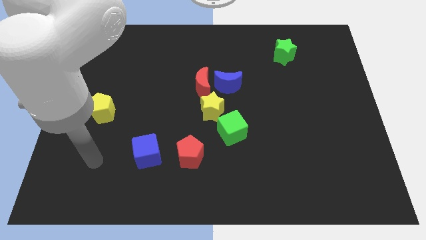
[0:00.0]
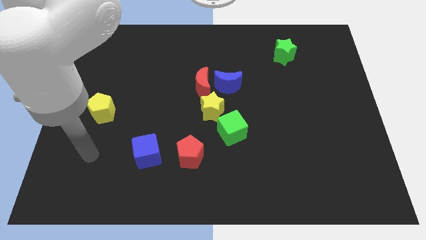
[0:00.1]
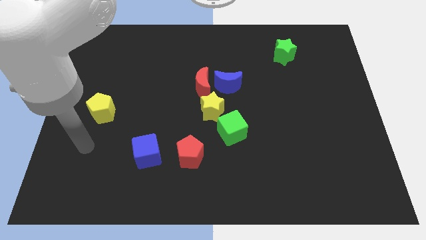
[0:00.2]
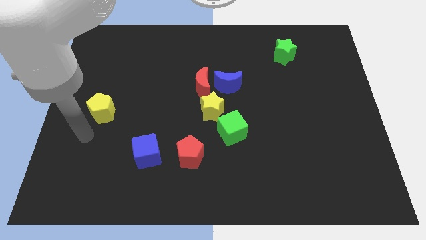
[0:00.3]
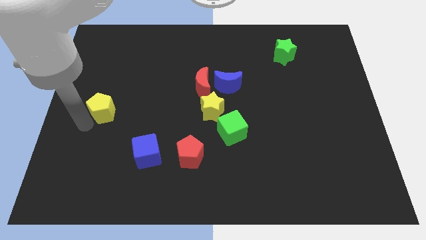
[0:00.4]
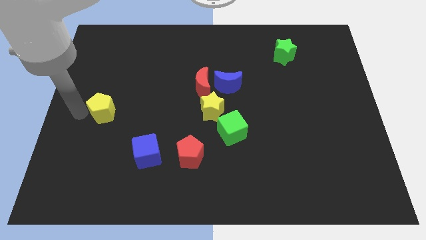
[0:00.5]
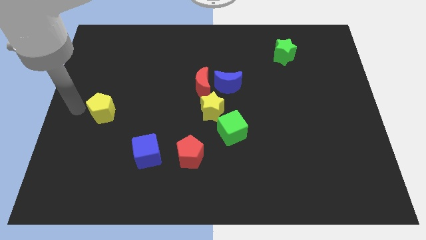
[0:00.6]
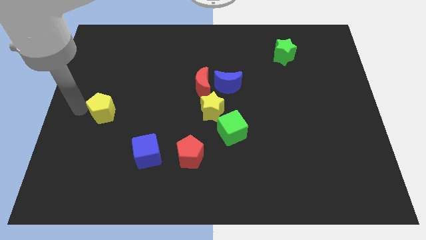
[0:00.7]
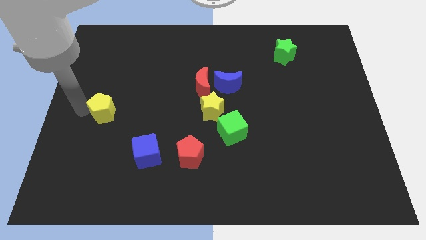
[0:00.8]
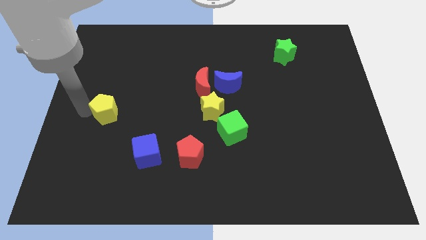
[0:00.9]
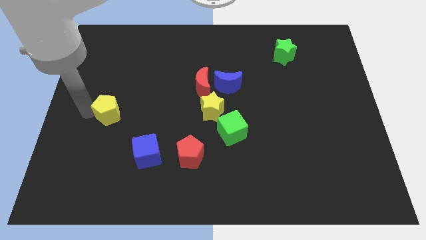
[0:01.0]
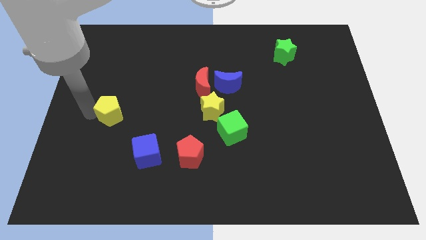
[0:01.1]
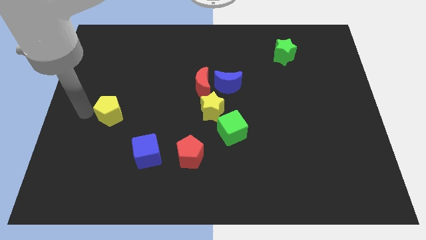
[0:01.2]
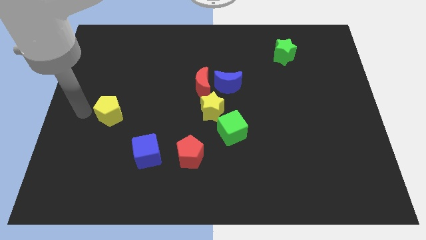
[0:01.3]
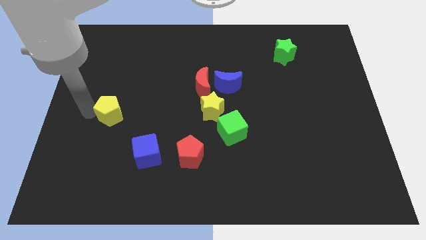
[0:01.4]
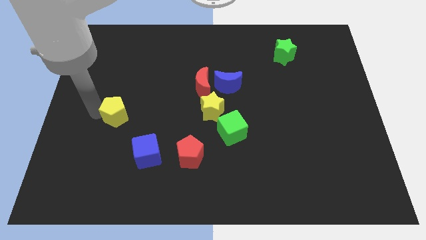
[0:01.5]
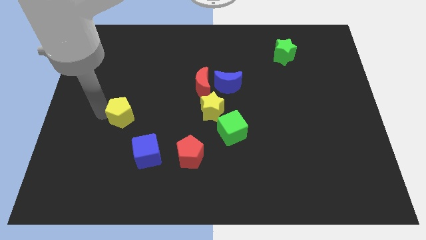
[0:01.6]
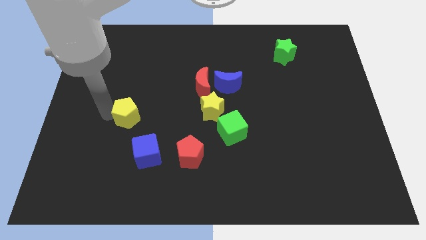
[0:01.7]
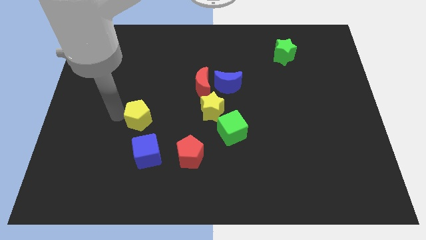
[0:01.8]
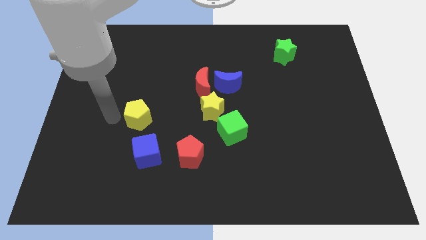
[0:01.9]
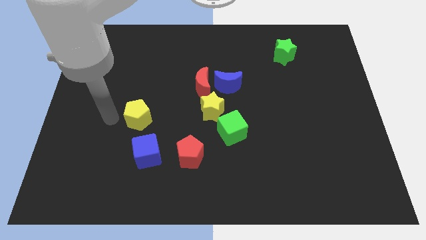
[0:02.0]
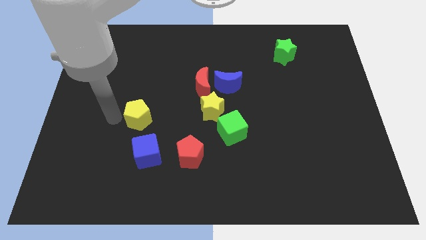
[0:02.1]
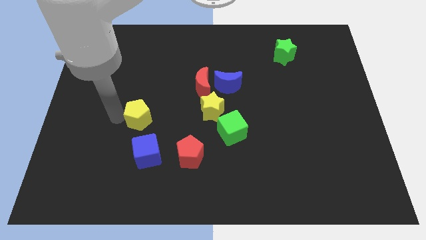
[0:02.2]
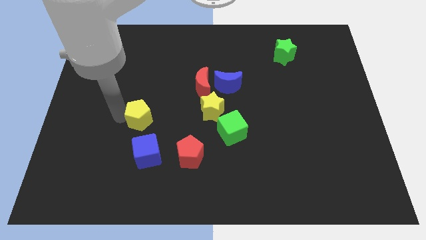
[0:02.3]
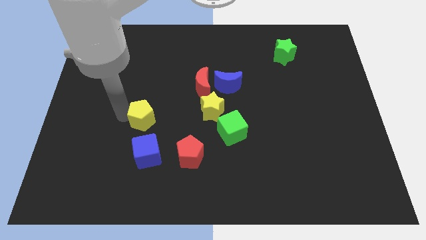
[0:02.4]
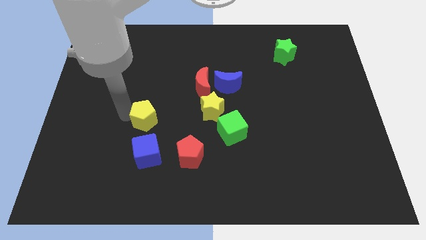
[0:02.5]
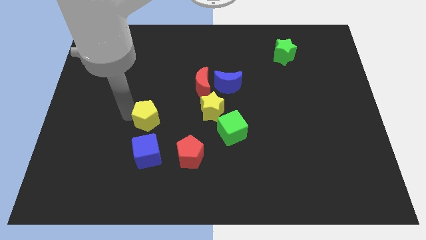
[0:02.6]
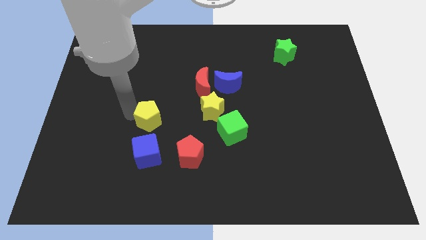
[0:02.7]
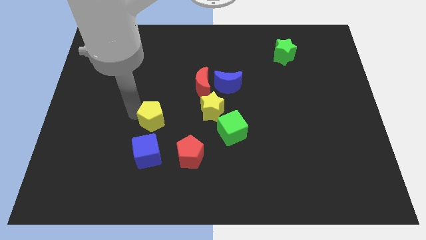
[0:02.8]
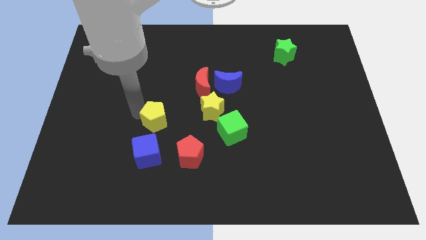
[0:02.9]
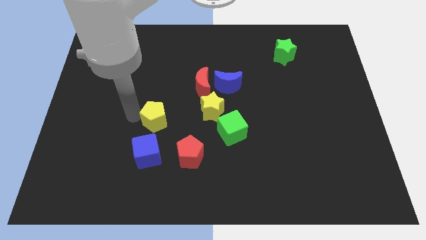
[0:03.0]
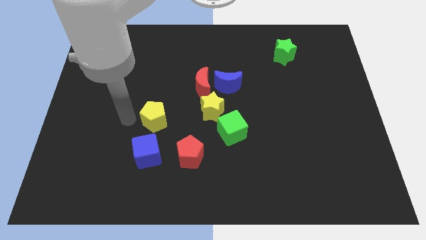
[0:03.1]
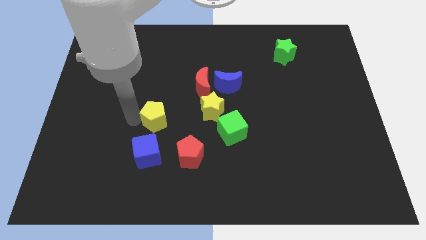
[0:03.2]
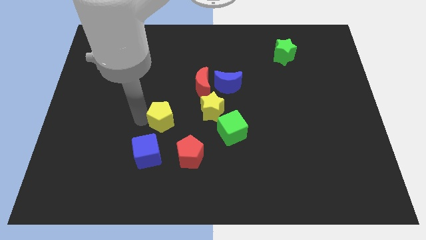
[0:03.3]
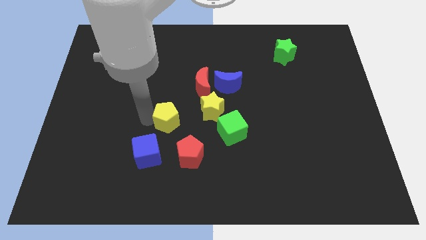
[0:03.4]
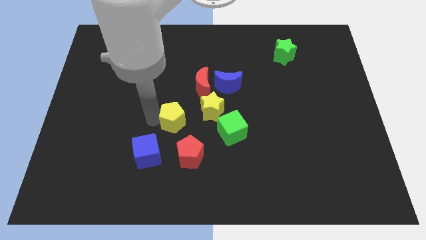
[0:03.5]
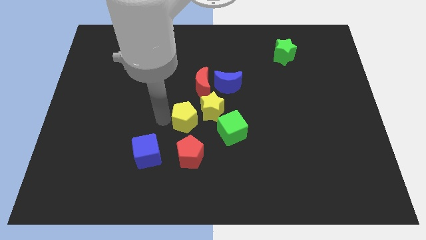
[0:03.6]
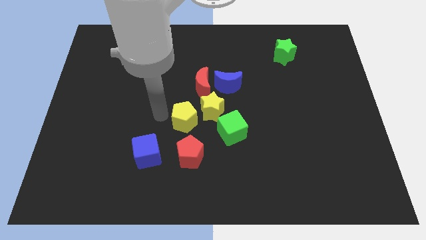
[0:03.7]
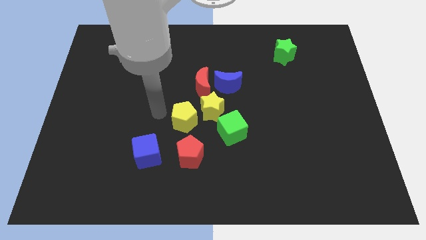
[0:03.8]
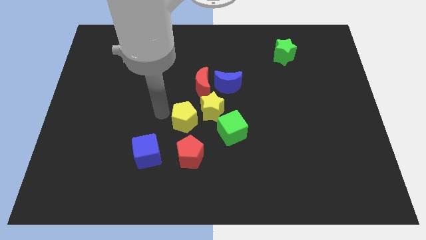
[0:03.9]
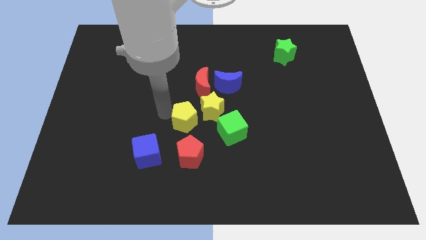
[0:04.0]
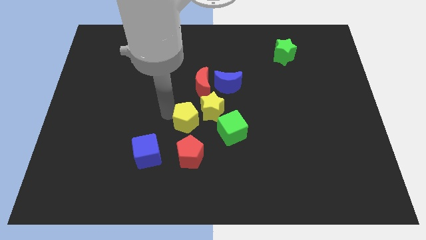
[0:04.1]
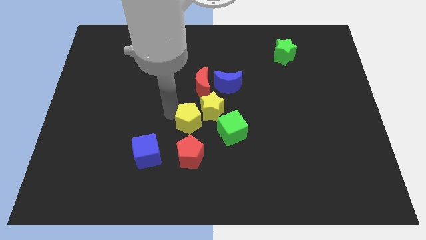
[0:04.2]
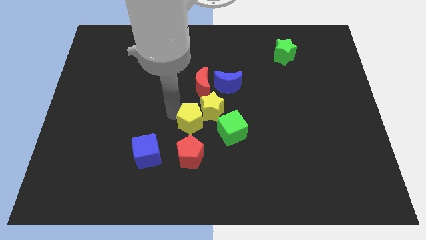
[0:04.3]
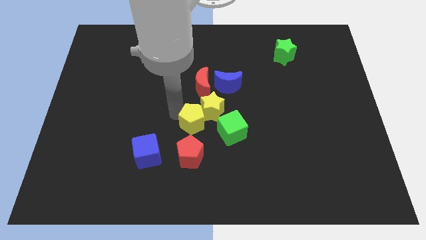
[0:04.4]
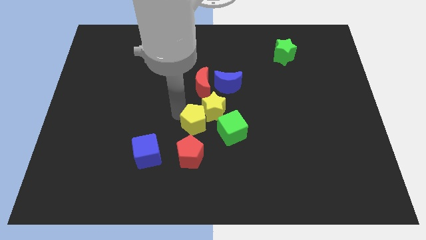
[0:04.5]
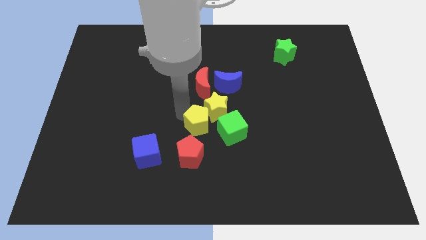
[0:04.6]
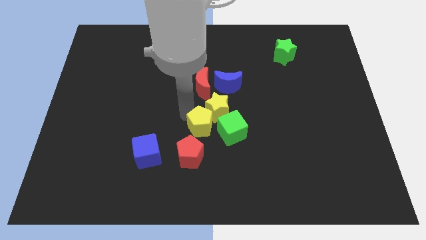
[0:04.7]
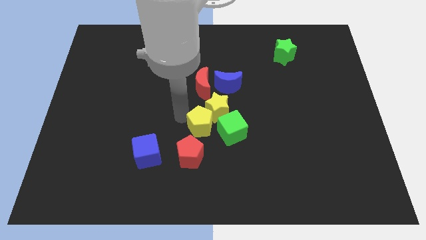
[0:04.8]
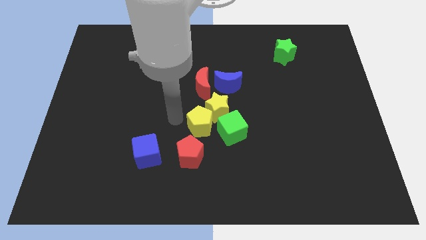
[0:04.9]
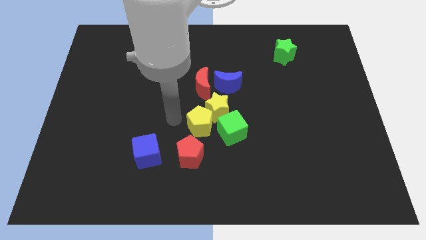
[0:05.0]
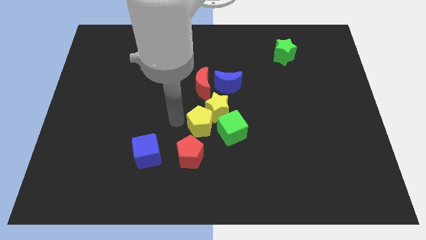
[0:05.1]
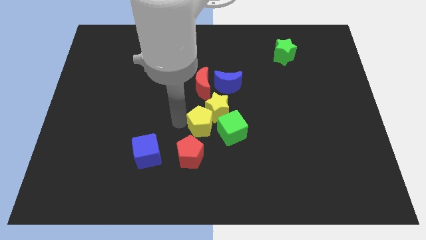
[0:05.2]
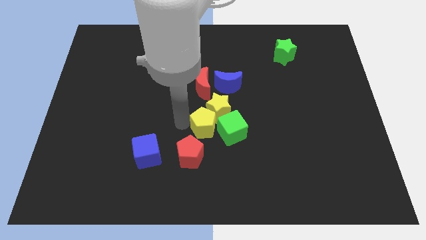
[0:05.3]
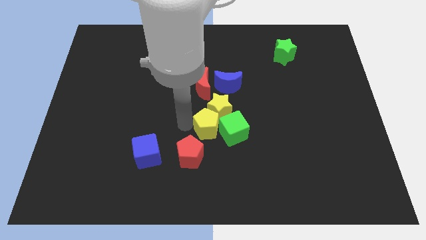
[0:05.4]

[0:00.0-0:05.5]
slide the yellow pentagon to the green cube

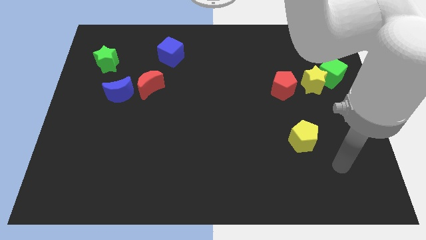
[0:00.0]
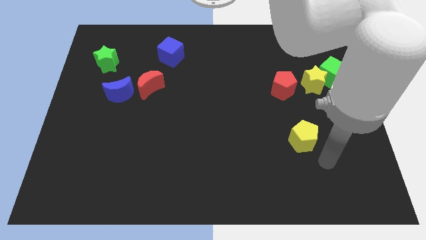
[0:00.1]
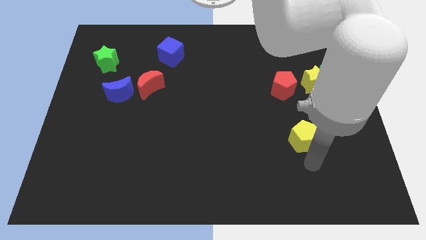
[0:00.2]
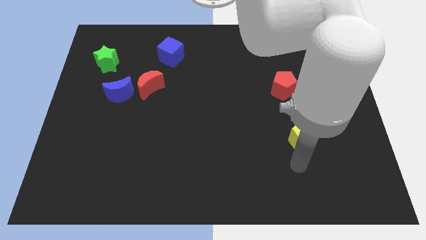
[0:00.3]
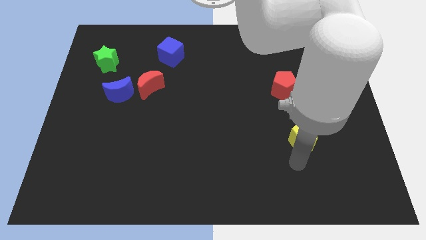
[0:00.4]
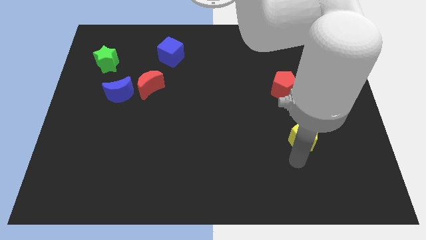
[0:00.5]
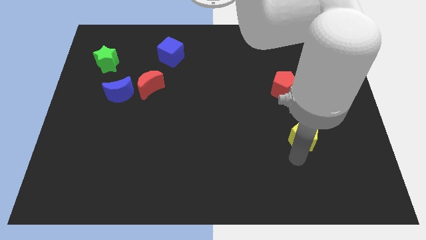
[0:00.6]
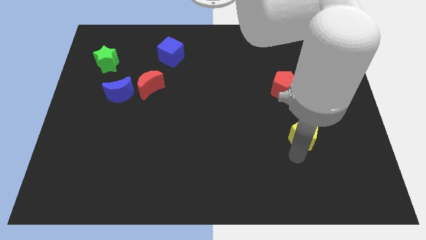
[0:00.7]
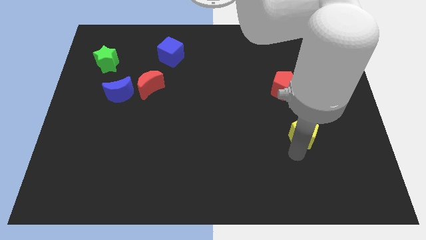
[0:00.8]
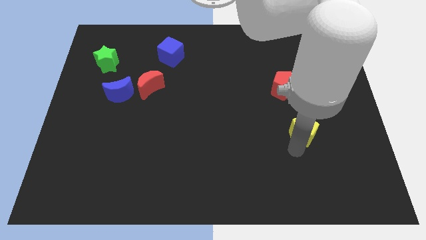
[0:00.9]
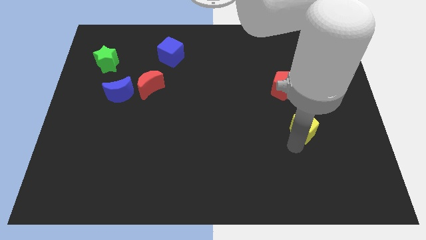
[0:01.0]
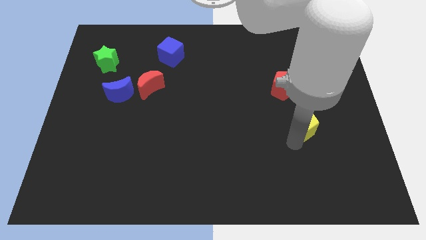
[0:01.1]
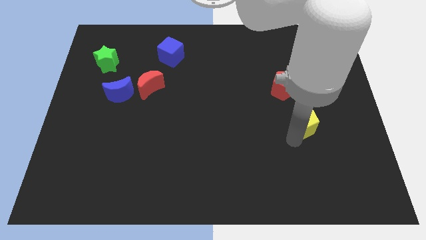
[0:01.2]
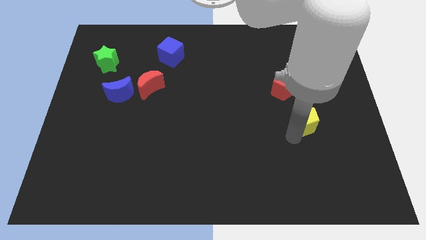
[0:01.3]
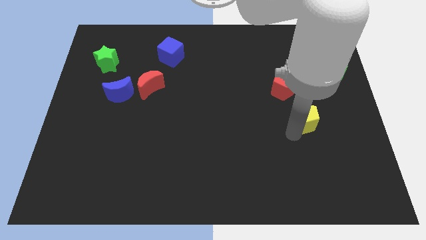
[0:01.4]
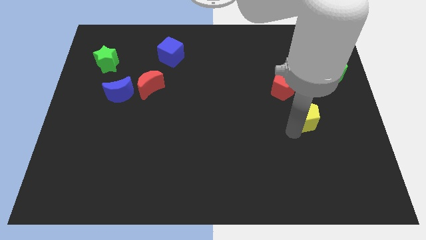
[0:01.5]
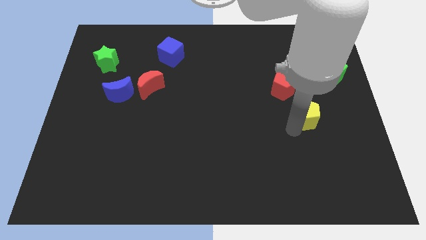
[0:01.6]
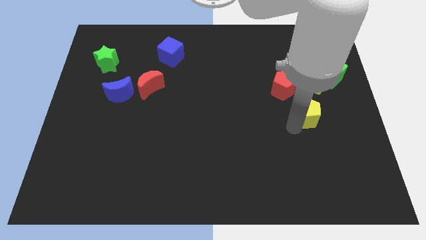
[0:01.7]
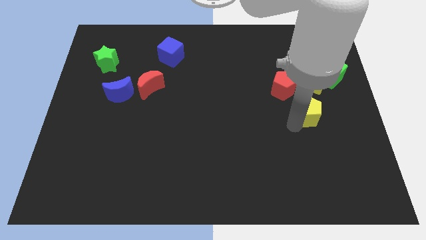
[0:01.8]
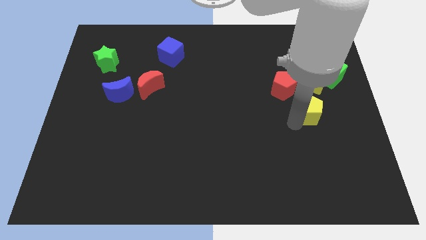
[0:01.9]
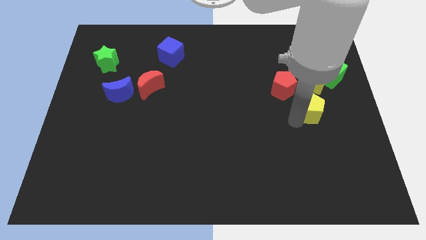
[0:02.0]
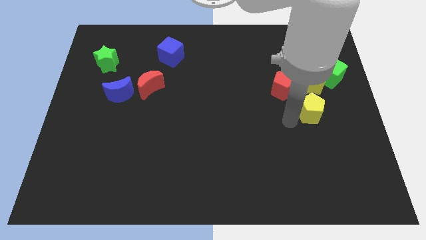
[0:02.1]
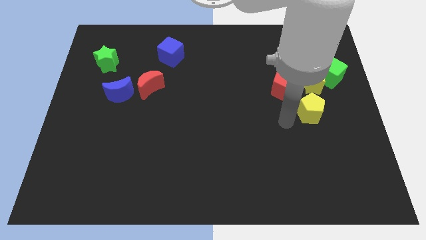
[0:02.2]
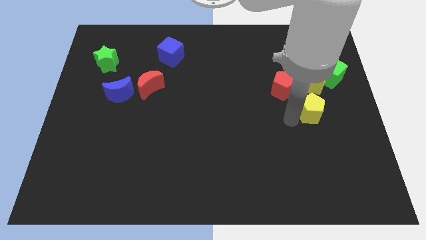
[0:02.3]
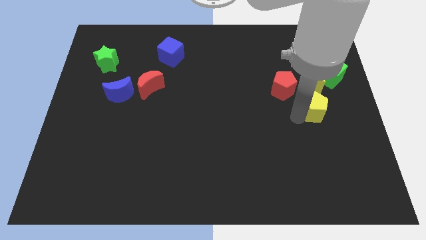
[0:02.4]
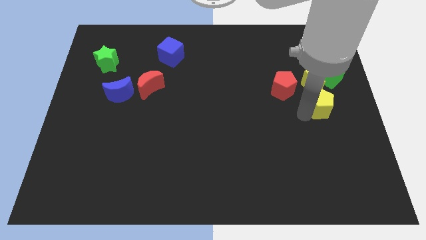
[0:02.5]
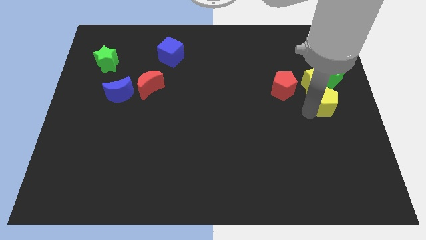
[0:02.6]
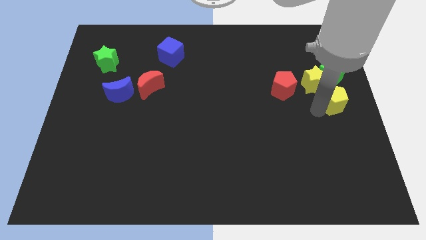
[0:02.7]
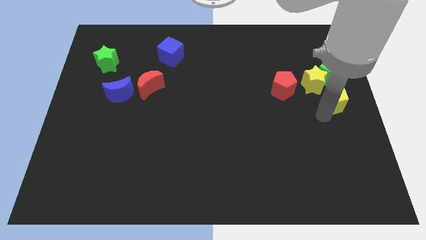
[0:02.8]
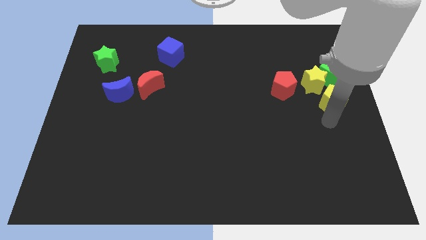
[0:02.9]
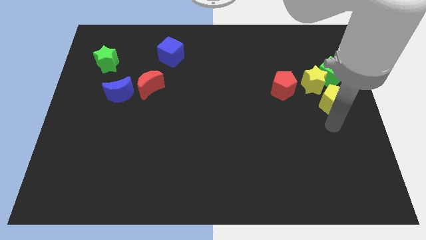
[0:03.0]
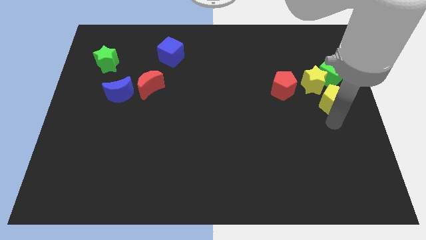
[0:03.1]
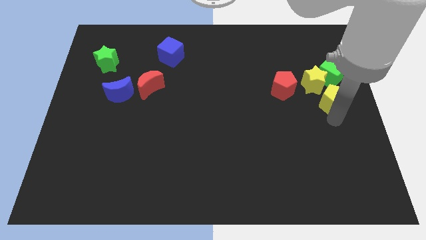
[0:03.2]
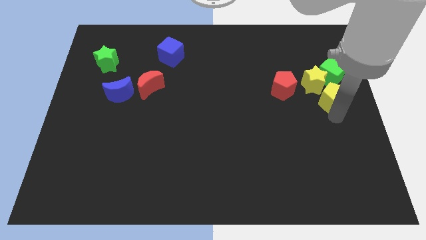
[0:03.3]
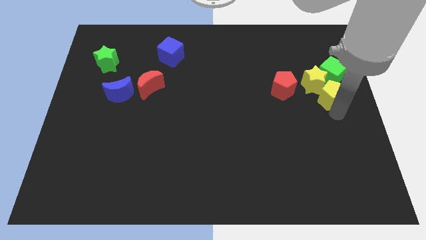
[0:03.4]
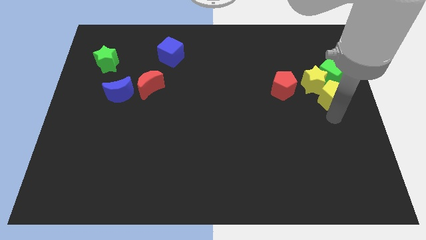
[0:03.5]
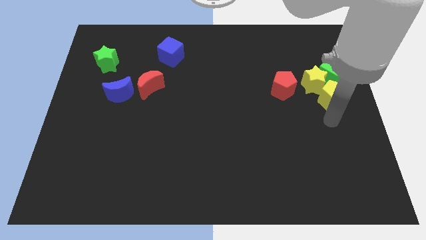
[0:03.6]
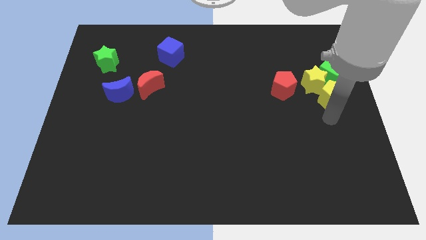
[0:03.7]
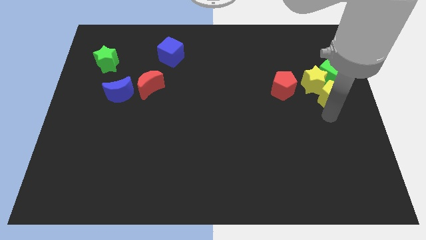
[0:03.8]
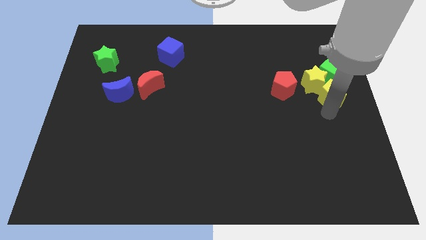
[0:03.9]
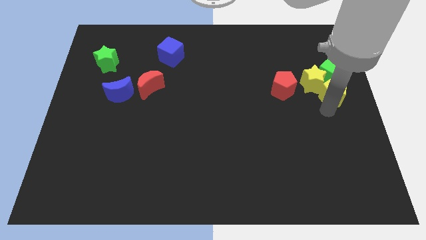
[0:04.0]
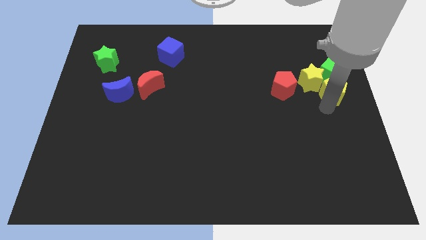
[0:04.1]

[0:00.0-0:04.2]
slide the yellow pentagon towards the green cube
